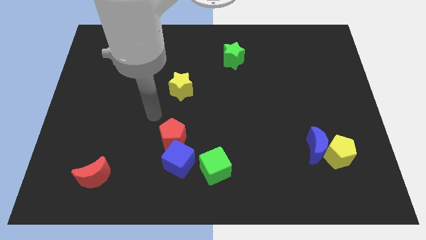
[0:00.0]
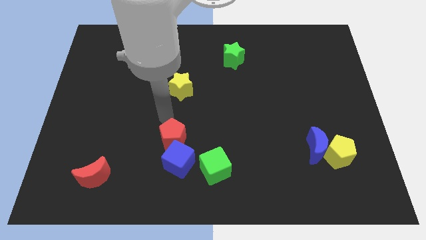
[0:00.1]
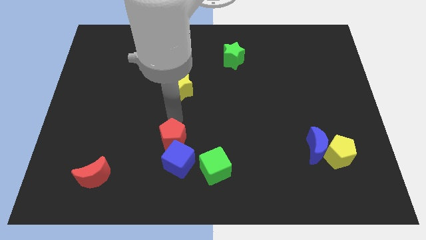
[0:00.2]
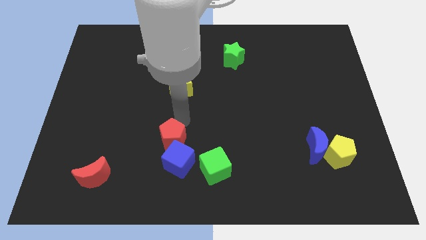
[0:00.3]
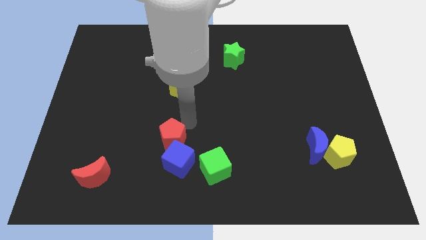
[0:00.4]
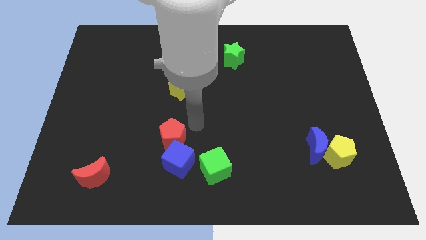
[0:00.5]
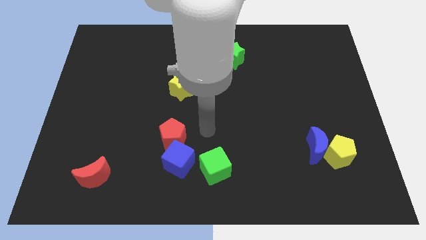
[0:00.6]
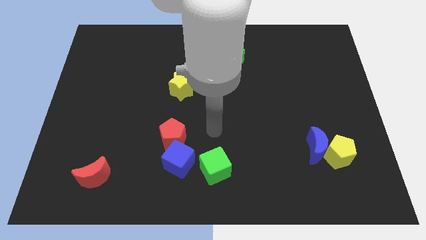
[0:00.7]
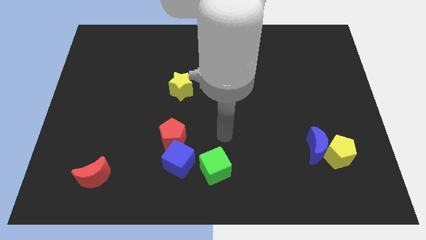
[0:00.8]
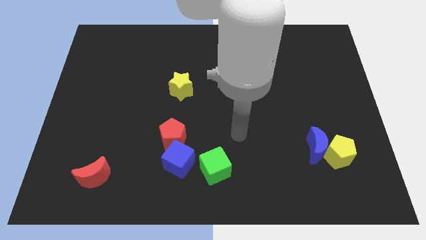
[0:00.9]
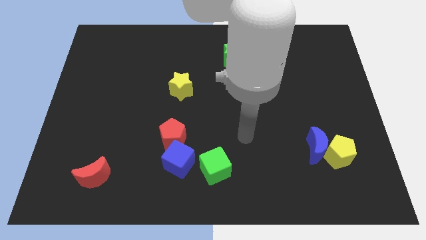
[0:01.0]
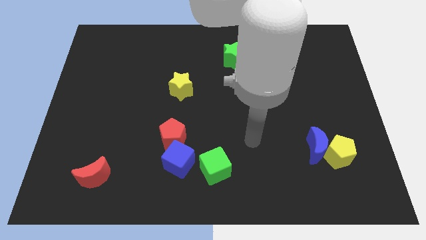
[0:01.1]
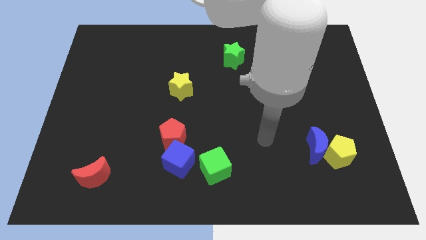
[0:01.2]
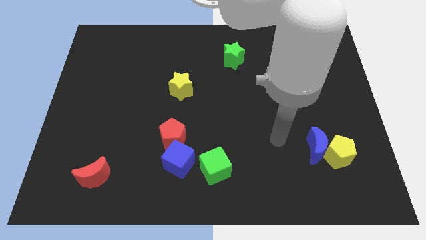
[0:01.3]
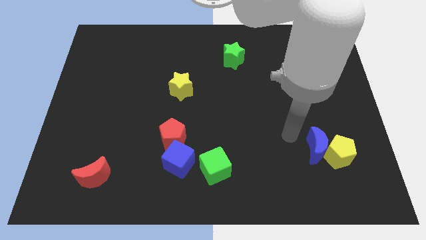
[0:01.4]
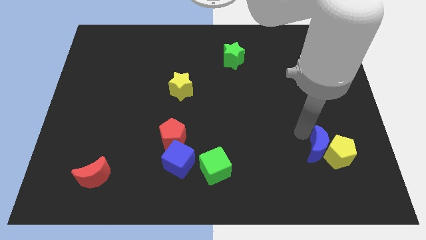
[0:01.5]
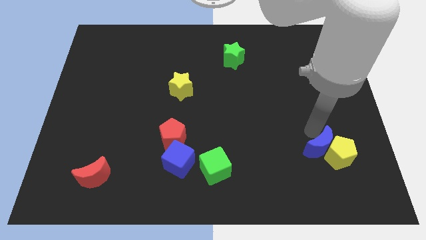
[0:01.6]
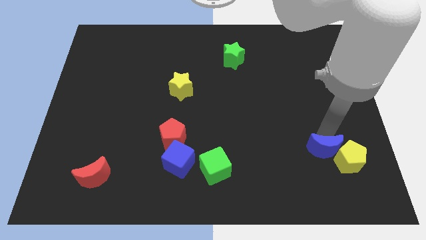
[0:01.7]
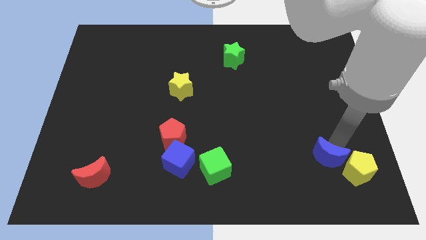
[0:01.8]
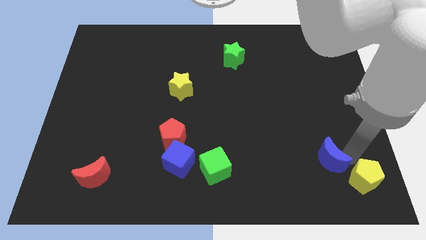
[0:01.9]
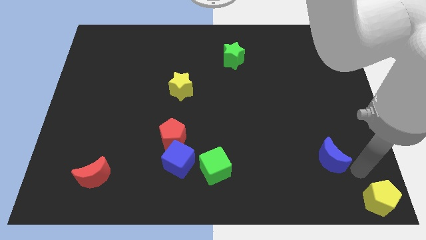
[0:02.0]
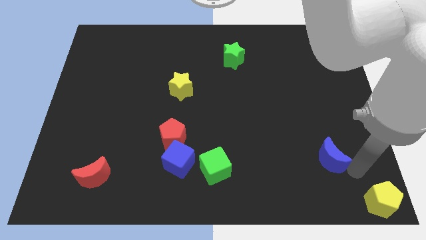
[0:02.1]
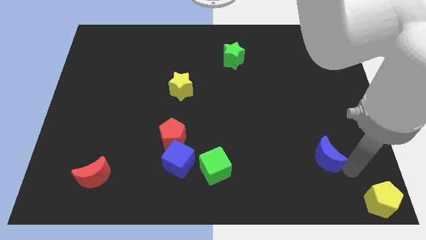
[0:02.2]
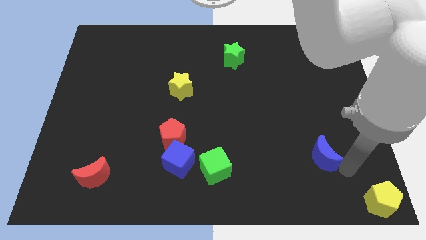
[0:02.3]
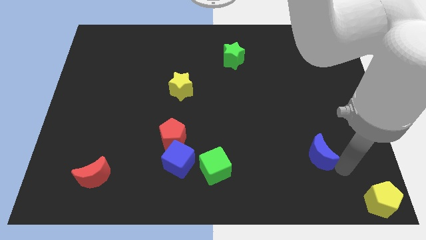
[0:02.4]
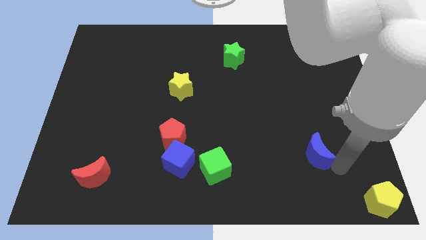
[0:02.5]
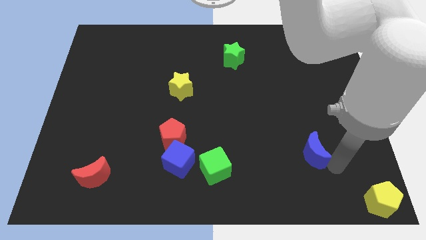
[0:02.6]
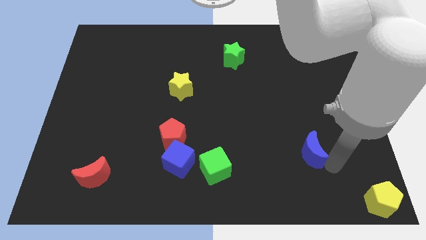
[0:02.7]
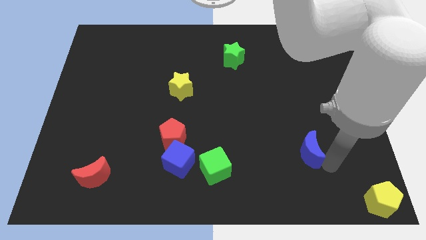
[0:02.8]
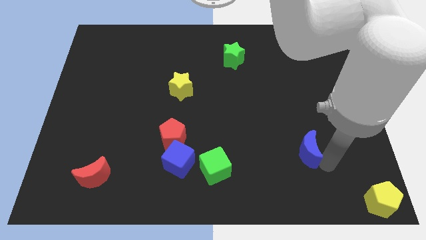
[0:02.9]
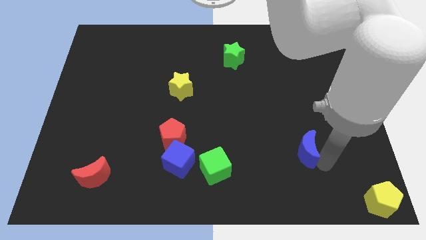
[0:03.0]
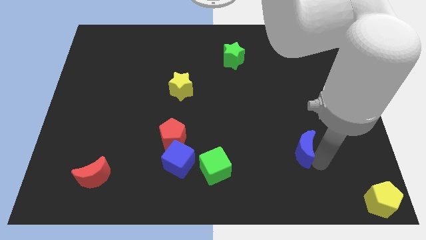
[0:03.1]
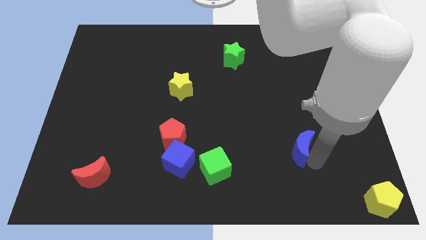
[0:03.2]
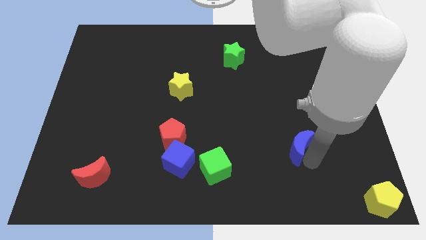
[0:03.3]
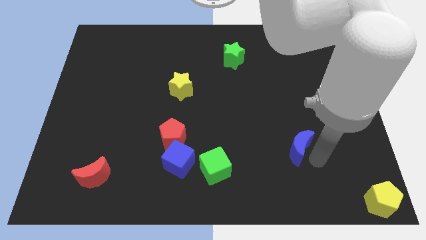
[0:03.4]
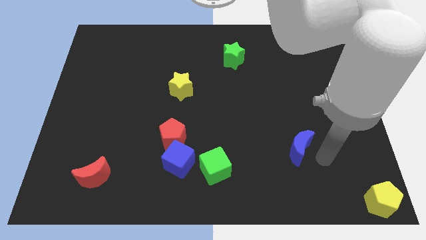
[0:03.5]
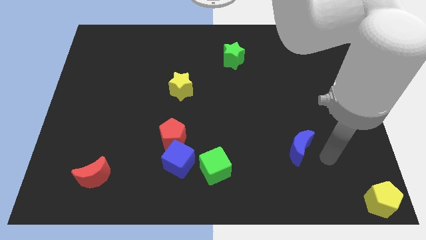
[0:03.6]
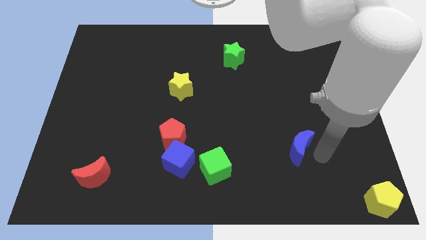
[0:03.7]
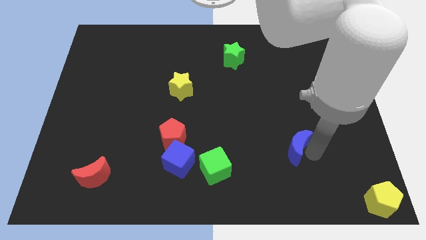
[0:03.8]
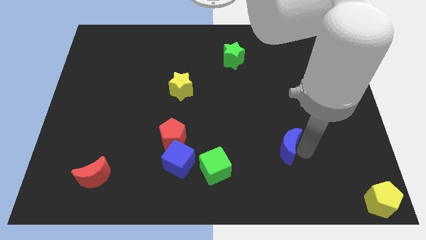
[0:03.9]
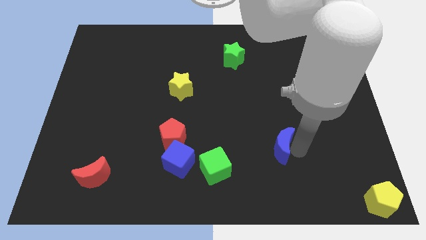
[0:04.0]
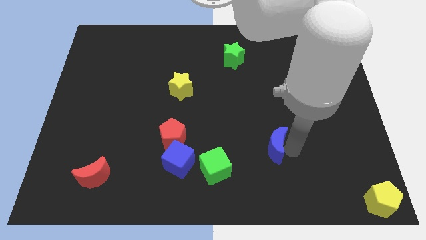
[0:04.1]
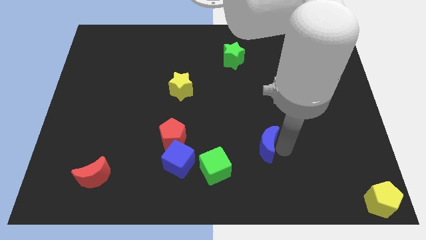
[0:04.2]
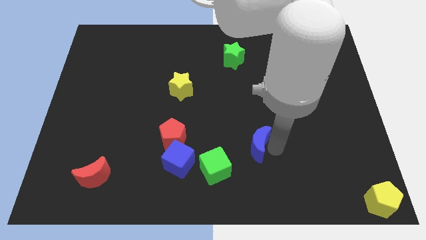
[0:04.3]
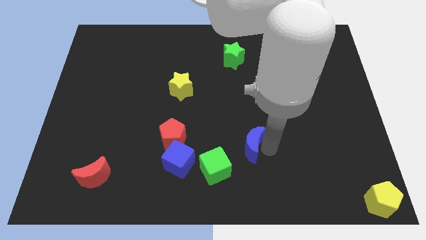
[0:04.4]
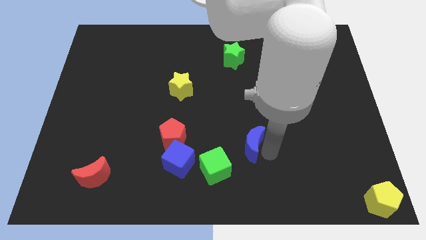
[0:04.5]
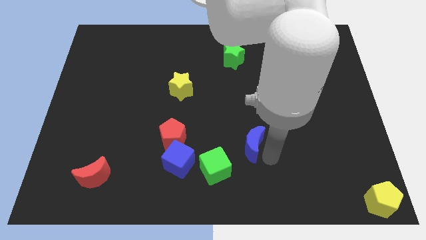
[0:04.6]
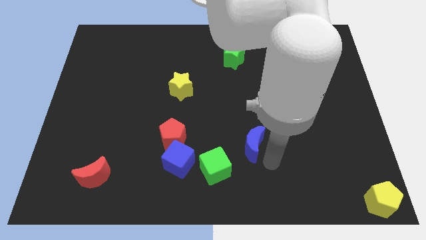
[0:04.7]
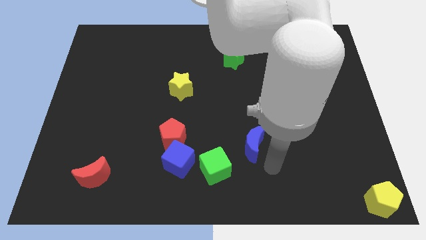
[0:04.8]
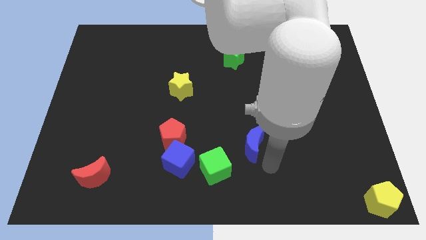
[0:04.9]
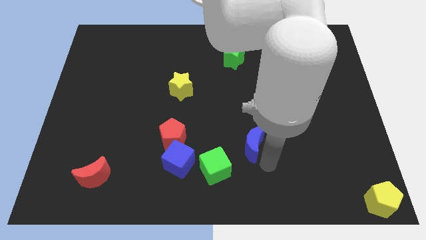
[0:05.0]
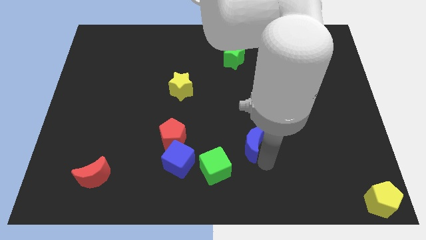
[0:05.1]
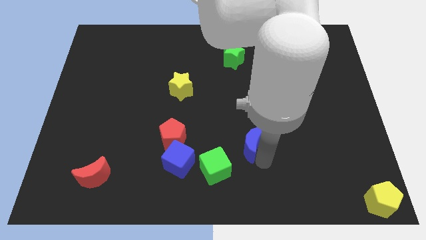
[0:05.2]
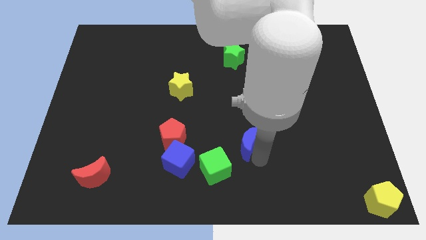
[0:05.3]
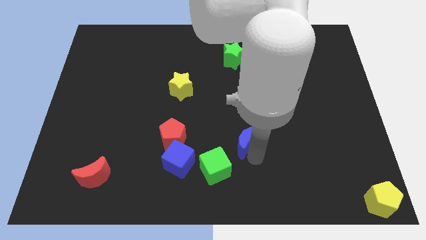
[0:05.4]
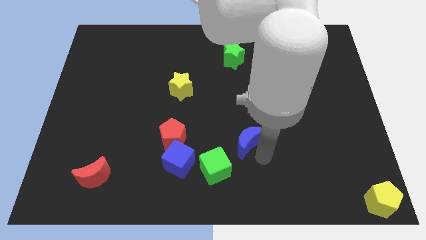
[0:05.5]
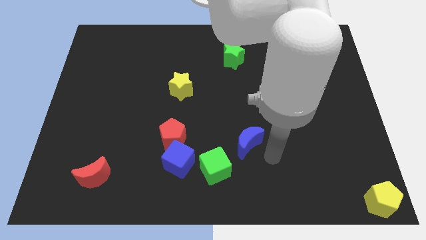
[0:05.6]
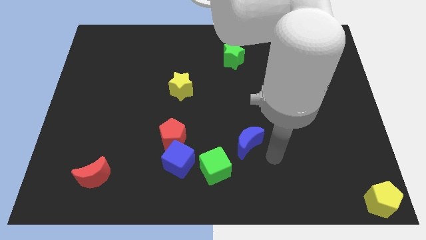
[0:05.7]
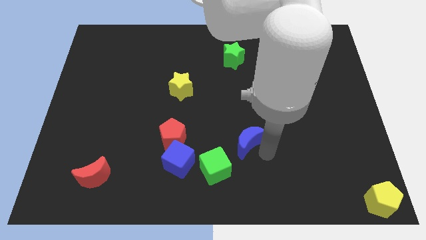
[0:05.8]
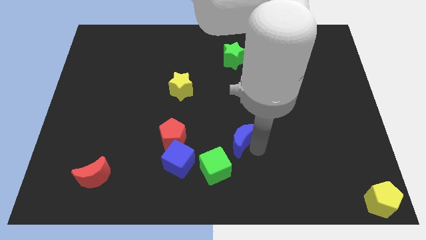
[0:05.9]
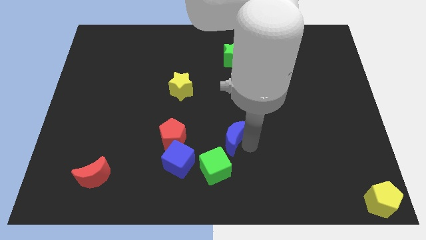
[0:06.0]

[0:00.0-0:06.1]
put the blue moon to the top side of the green cube

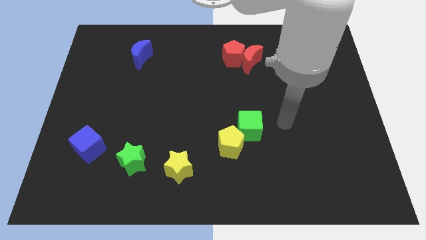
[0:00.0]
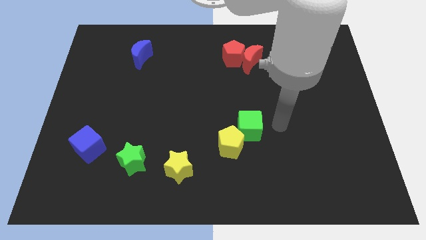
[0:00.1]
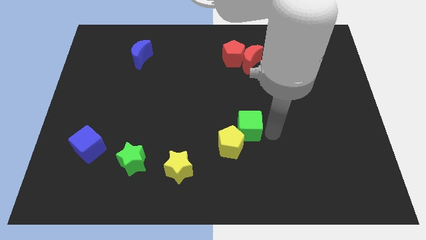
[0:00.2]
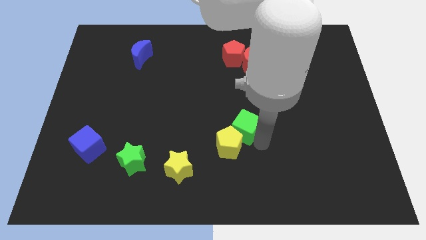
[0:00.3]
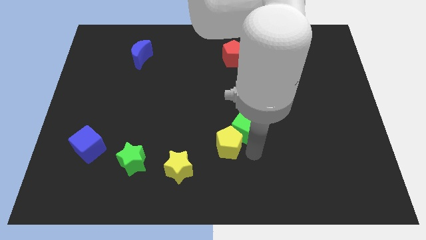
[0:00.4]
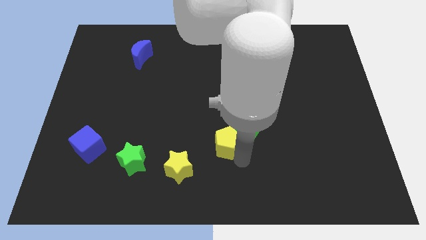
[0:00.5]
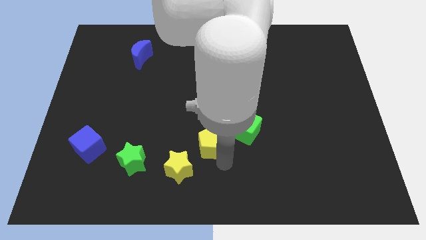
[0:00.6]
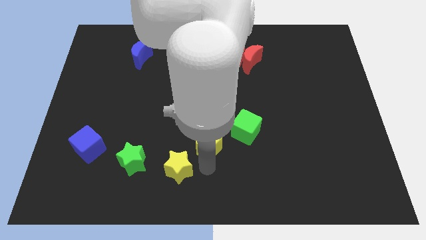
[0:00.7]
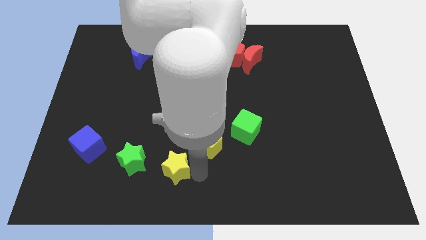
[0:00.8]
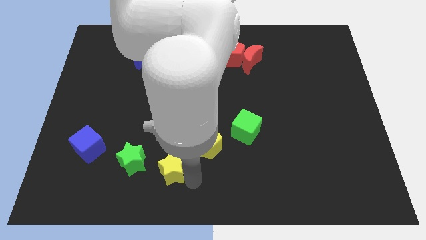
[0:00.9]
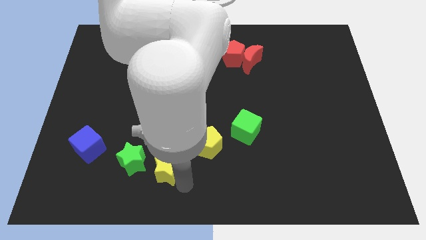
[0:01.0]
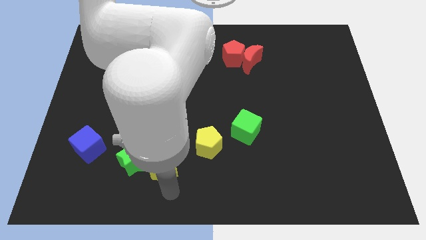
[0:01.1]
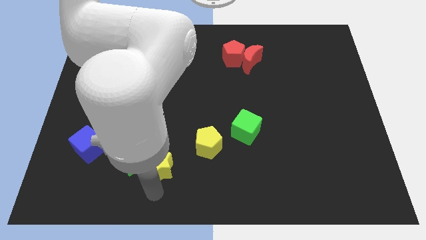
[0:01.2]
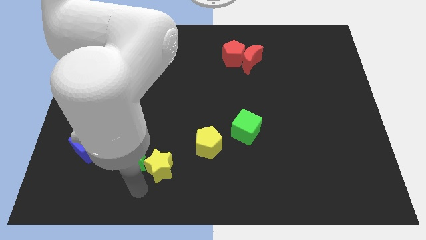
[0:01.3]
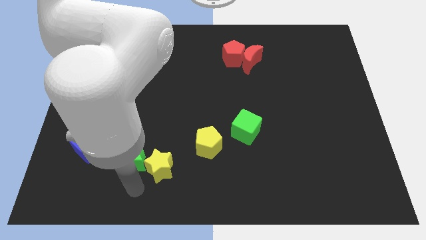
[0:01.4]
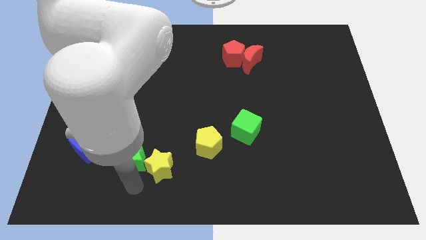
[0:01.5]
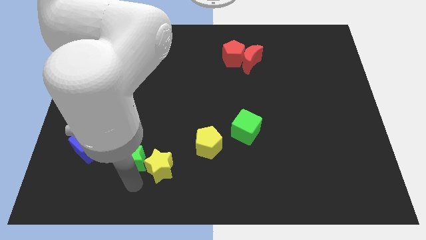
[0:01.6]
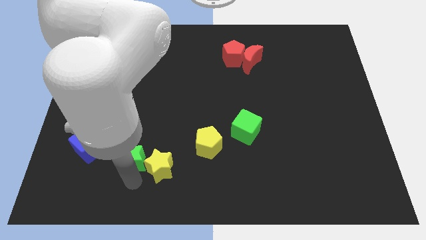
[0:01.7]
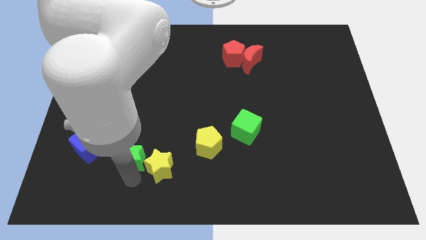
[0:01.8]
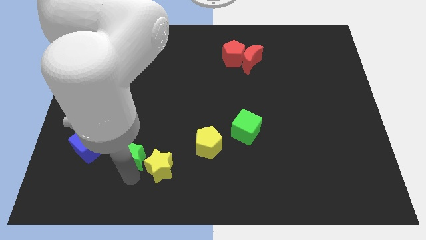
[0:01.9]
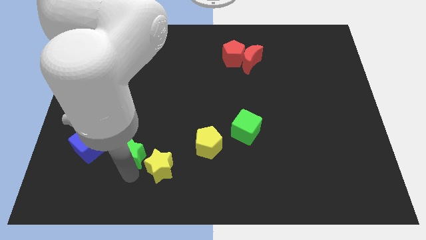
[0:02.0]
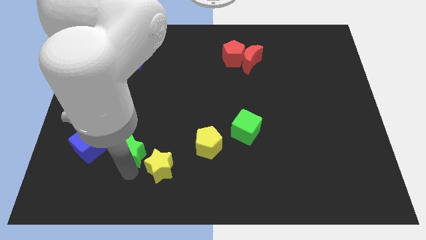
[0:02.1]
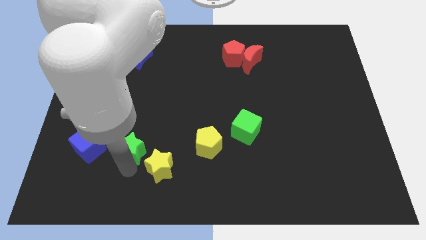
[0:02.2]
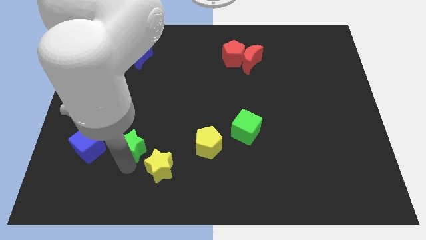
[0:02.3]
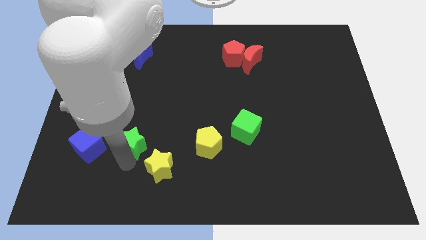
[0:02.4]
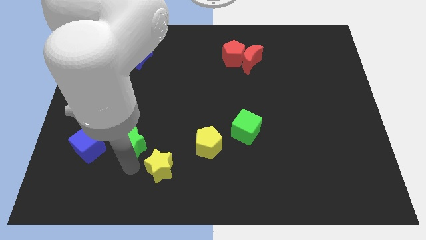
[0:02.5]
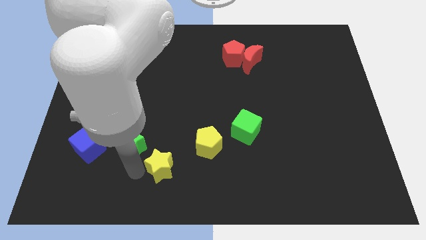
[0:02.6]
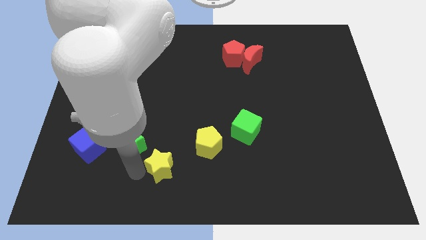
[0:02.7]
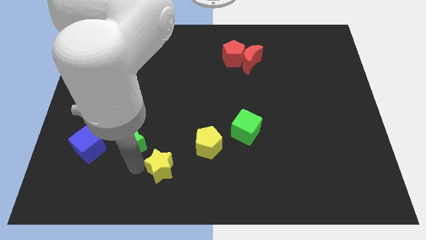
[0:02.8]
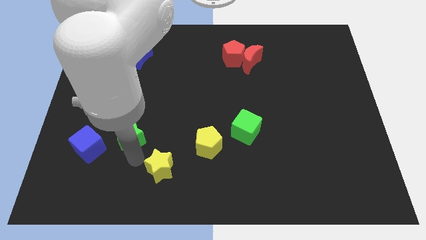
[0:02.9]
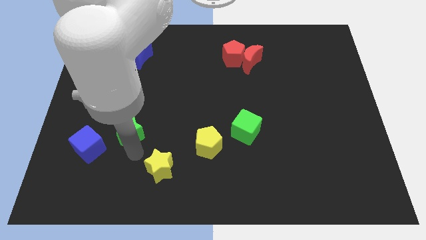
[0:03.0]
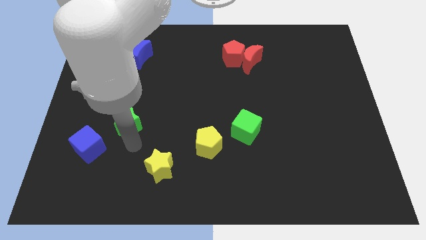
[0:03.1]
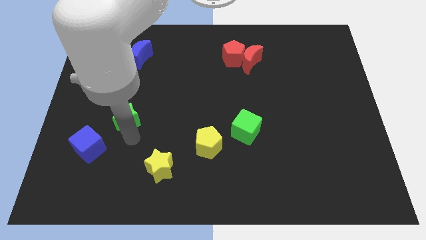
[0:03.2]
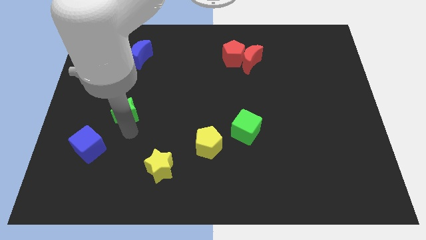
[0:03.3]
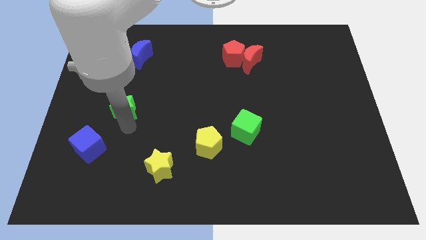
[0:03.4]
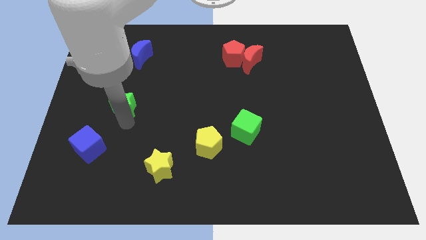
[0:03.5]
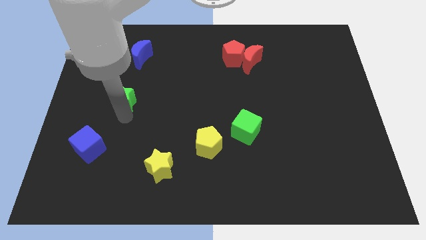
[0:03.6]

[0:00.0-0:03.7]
move the green star to the bottom of the blue moon
